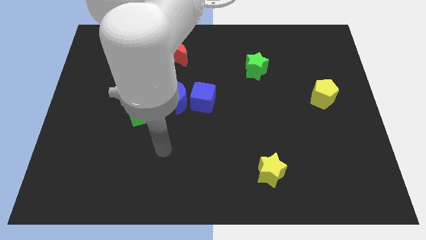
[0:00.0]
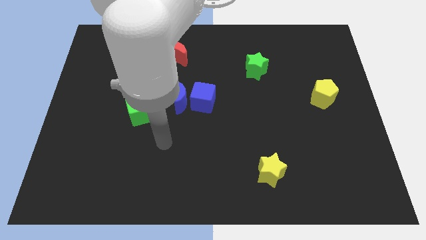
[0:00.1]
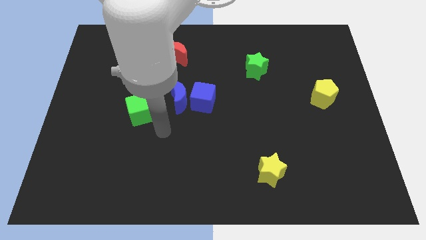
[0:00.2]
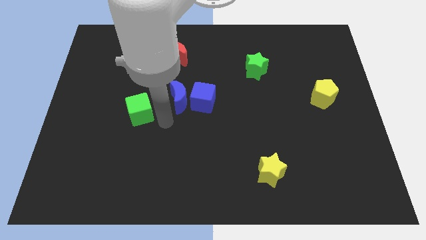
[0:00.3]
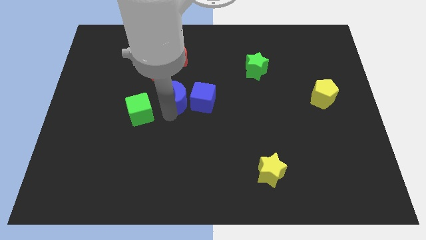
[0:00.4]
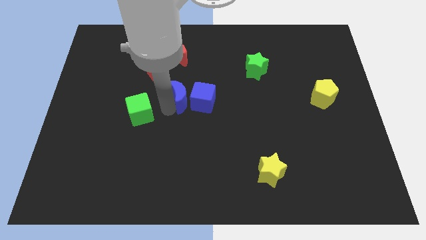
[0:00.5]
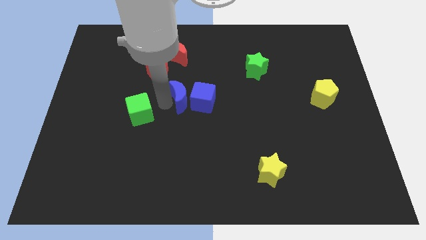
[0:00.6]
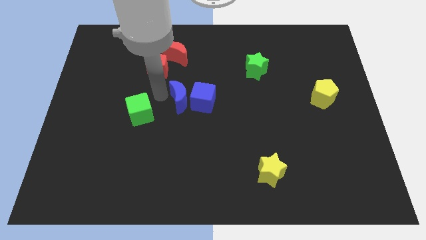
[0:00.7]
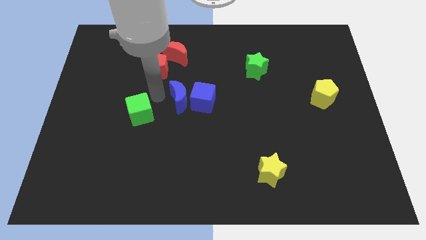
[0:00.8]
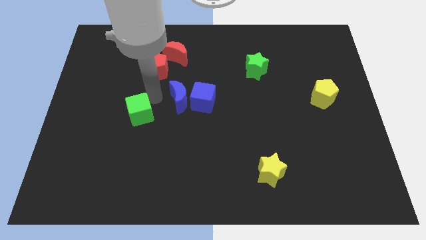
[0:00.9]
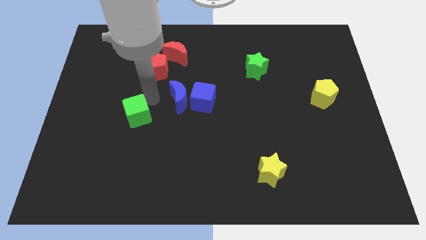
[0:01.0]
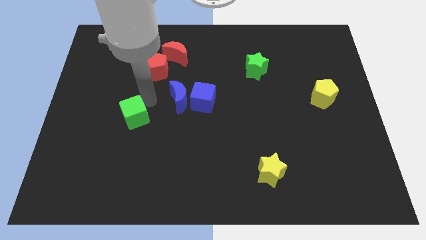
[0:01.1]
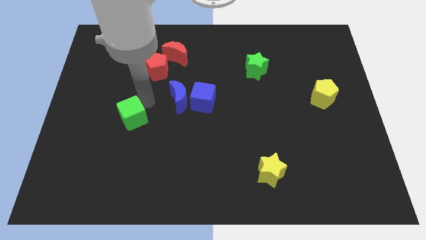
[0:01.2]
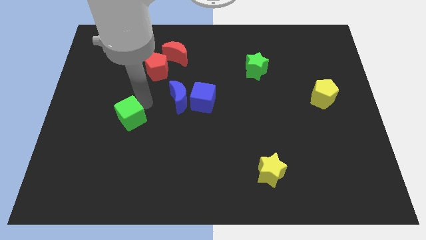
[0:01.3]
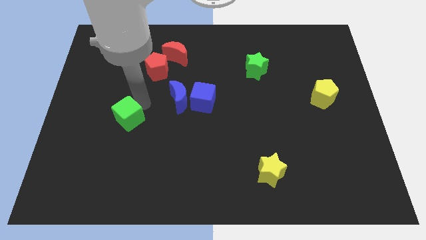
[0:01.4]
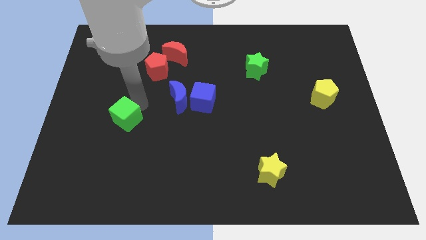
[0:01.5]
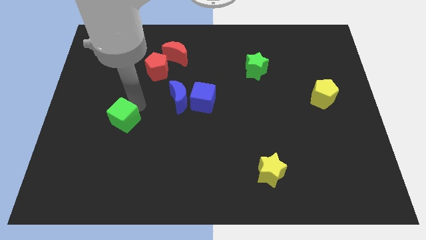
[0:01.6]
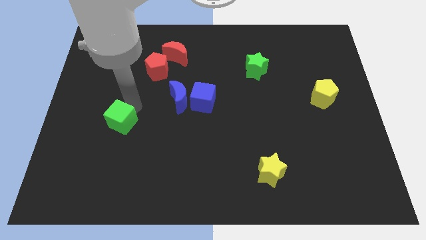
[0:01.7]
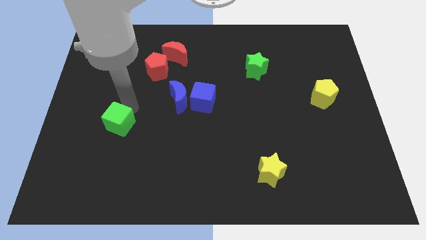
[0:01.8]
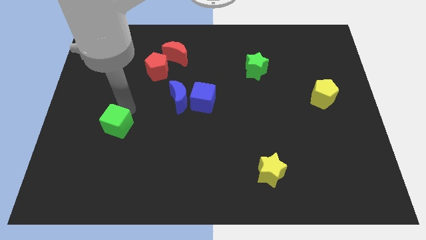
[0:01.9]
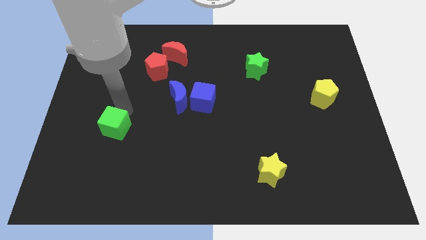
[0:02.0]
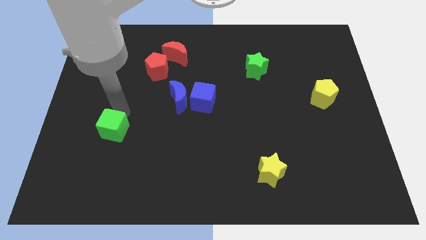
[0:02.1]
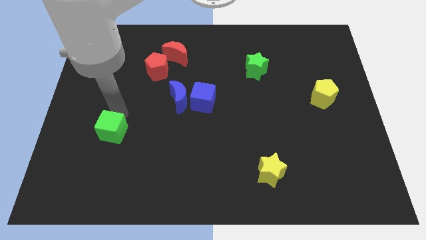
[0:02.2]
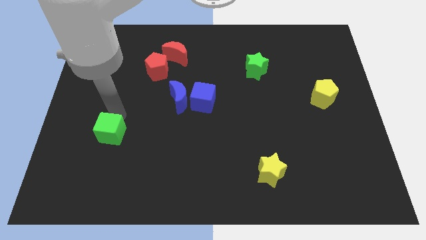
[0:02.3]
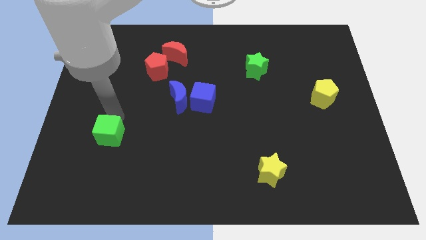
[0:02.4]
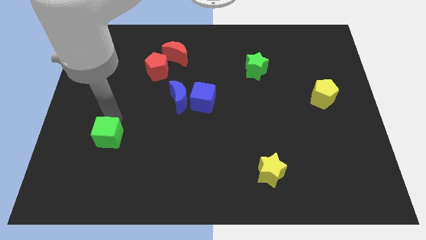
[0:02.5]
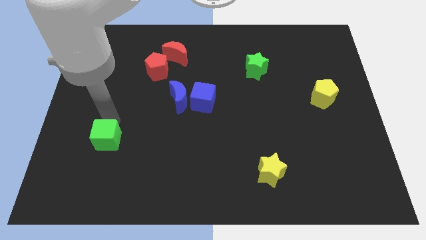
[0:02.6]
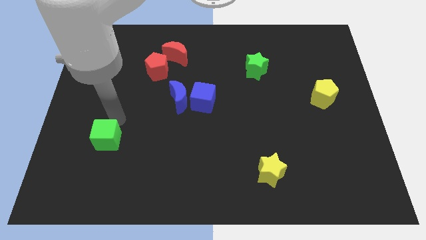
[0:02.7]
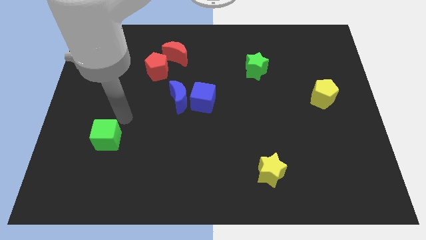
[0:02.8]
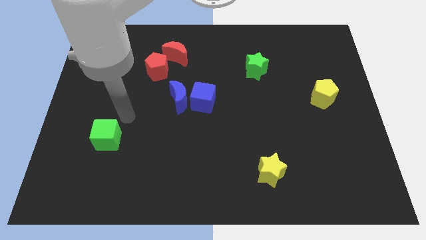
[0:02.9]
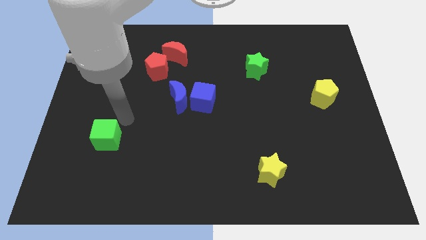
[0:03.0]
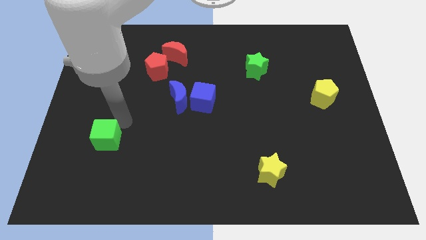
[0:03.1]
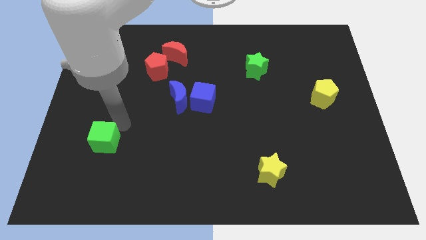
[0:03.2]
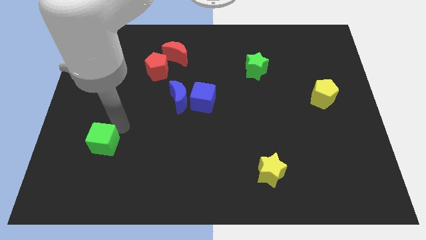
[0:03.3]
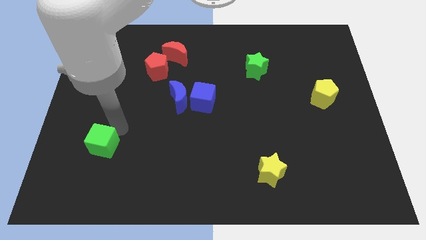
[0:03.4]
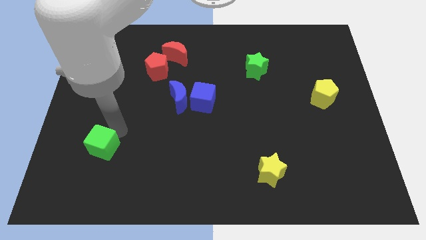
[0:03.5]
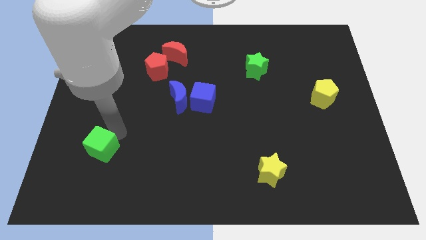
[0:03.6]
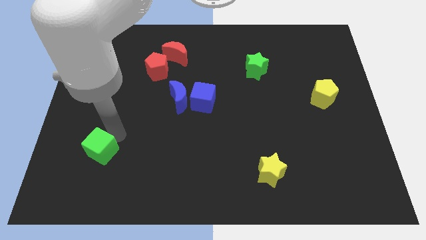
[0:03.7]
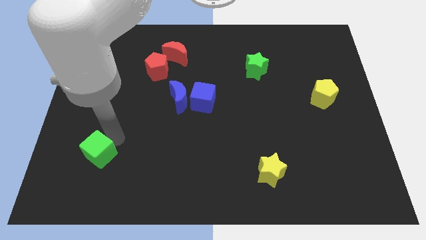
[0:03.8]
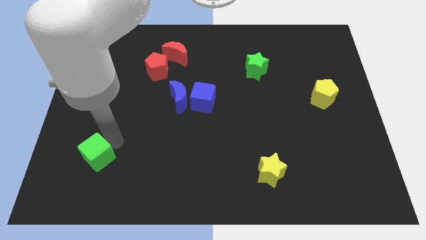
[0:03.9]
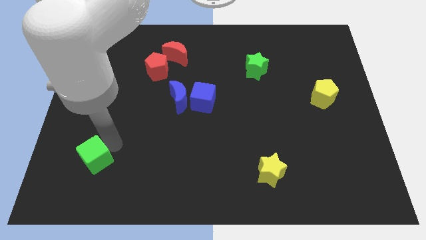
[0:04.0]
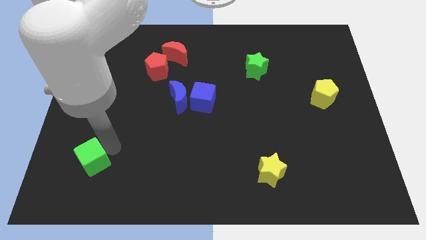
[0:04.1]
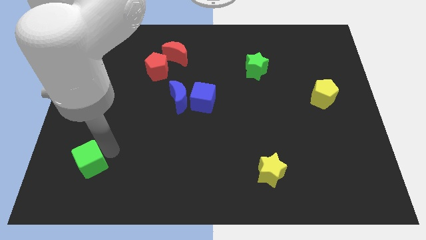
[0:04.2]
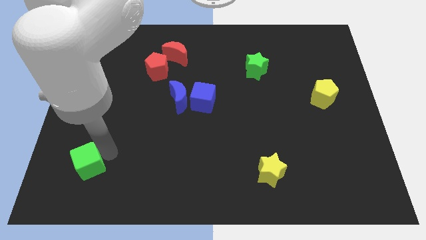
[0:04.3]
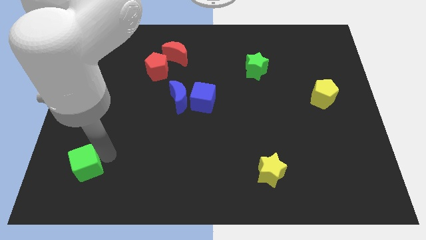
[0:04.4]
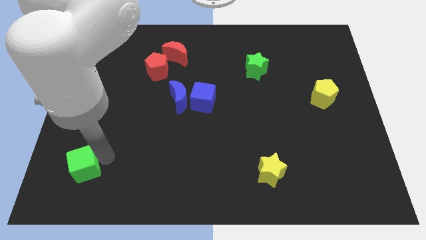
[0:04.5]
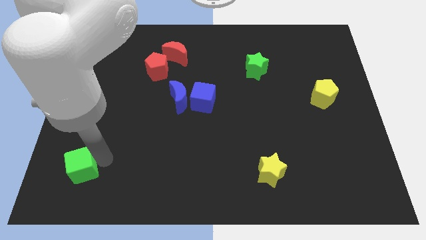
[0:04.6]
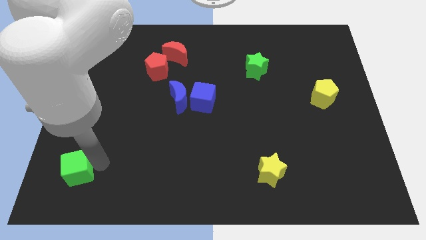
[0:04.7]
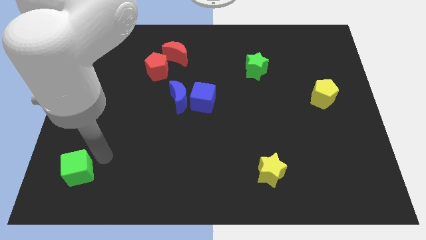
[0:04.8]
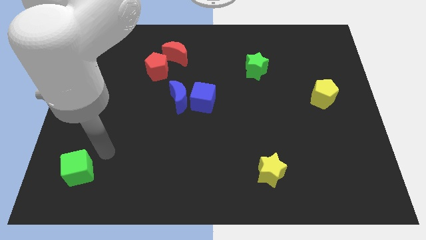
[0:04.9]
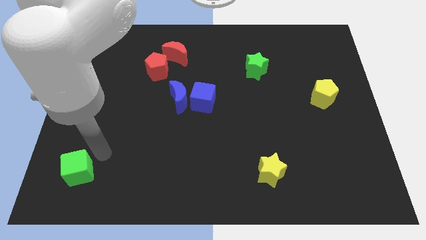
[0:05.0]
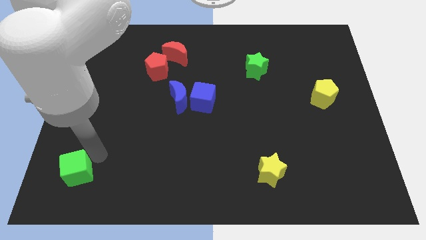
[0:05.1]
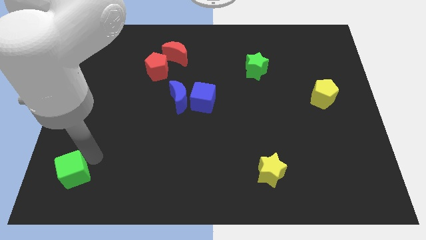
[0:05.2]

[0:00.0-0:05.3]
move the green cube to the bottom left

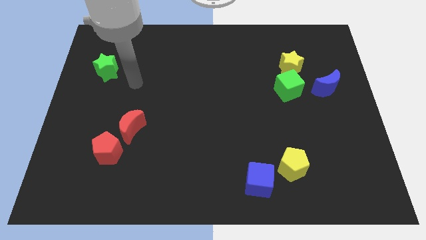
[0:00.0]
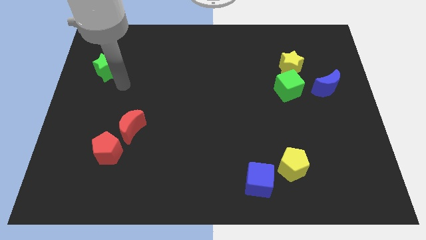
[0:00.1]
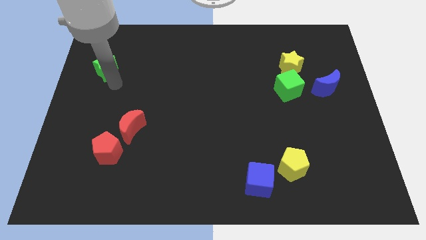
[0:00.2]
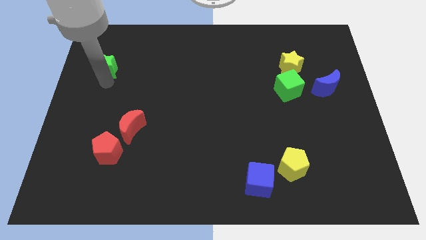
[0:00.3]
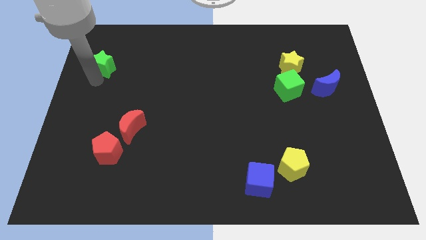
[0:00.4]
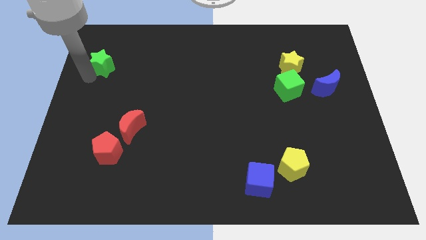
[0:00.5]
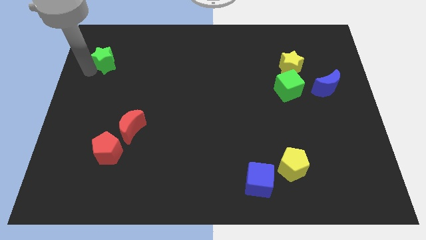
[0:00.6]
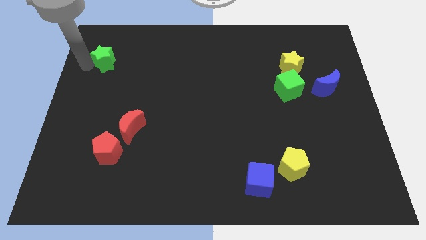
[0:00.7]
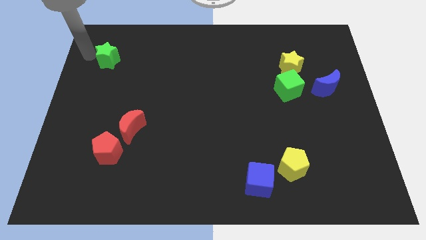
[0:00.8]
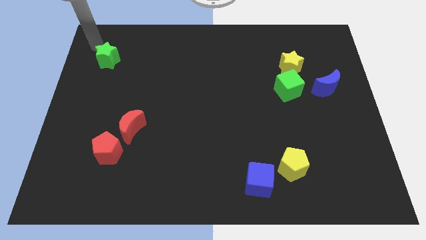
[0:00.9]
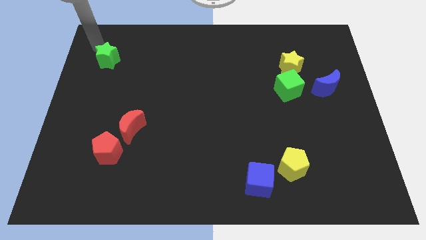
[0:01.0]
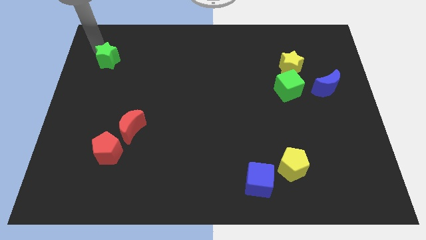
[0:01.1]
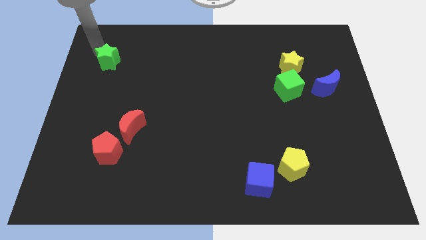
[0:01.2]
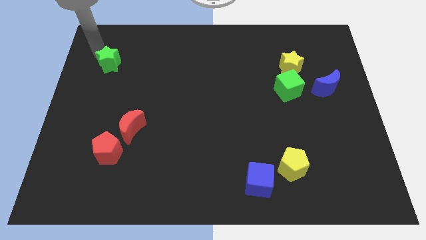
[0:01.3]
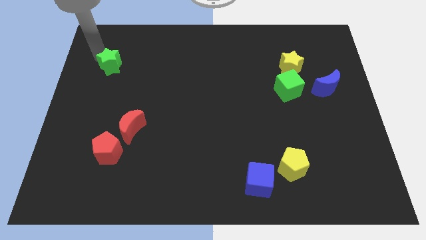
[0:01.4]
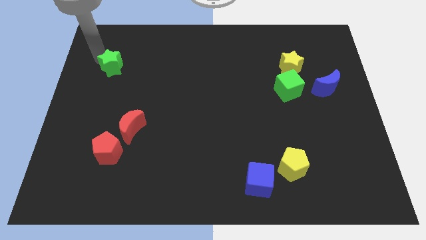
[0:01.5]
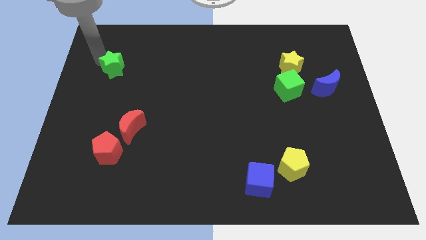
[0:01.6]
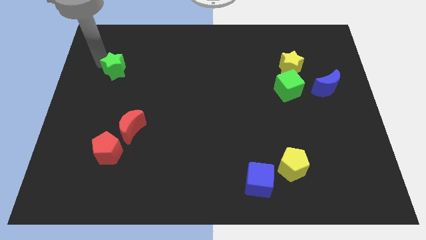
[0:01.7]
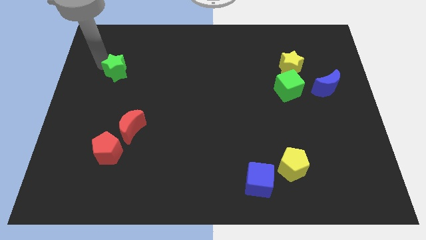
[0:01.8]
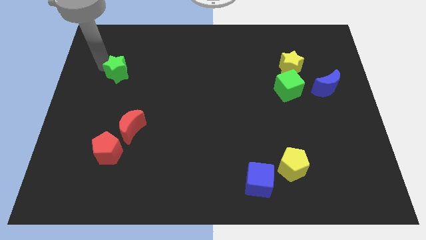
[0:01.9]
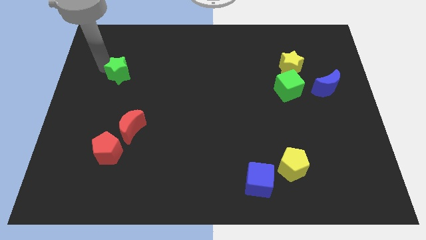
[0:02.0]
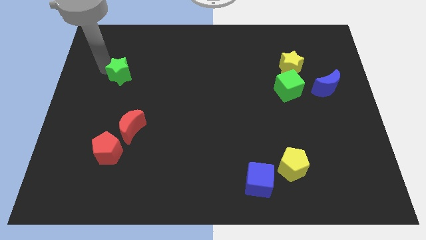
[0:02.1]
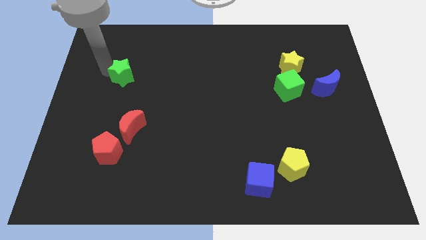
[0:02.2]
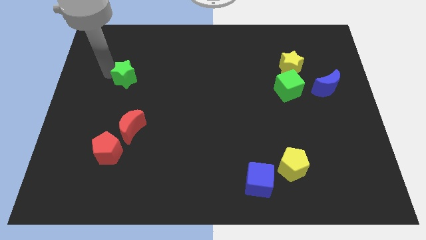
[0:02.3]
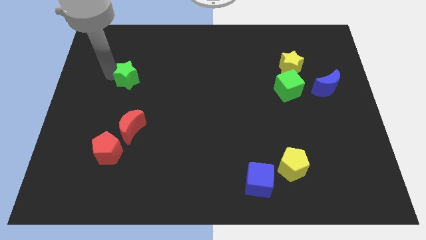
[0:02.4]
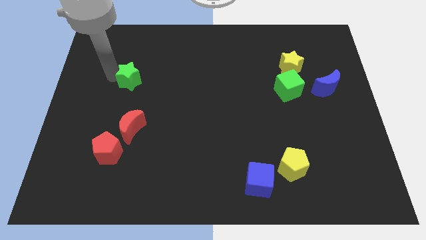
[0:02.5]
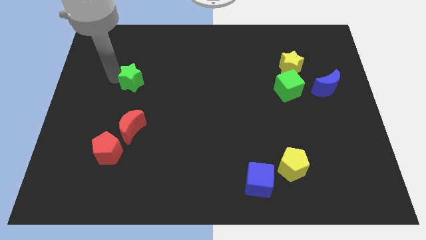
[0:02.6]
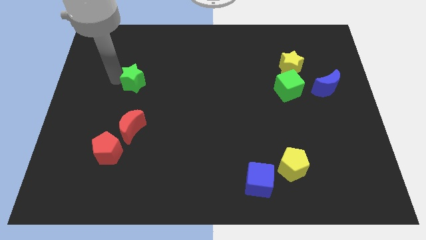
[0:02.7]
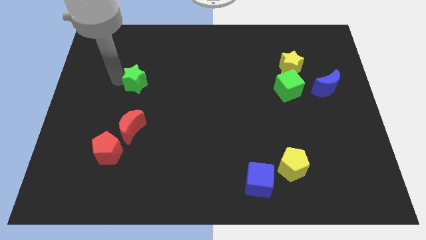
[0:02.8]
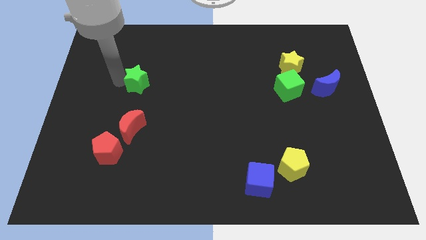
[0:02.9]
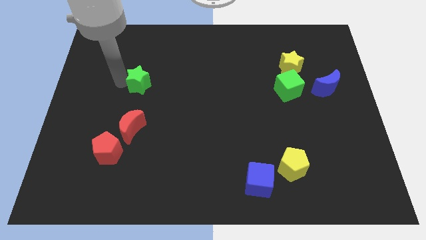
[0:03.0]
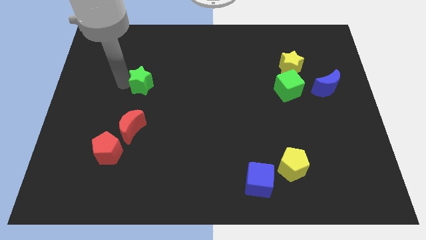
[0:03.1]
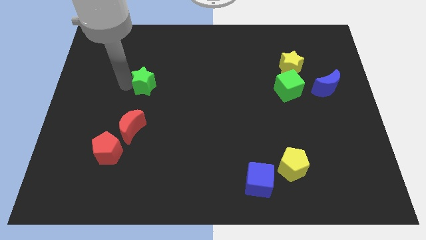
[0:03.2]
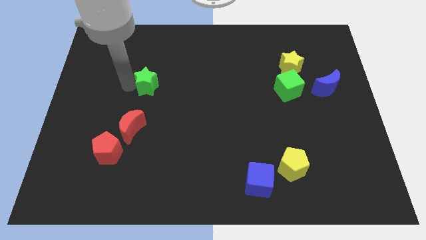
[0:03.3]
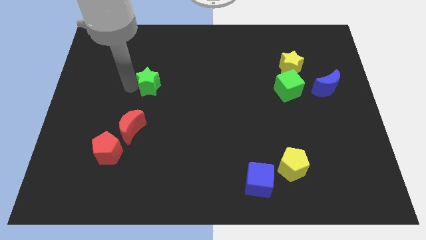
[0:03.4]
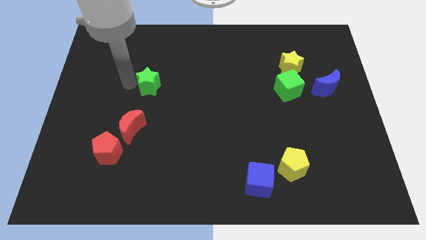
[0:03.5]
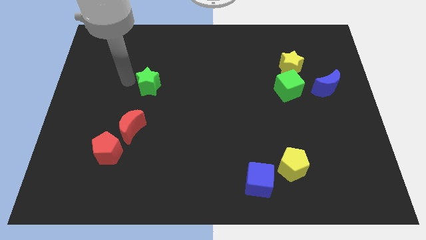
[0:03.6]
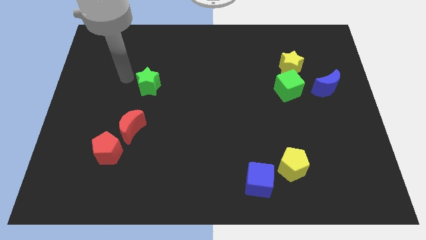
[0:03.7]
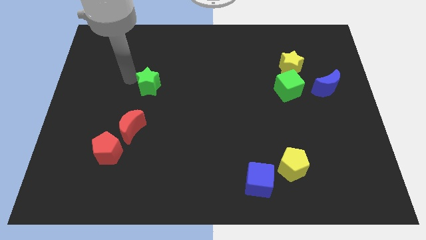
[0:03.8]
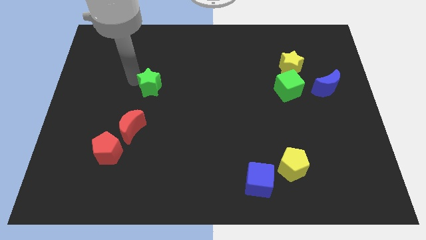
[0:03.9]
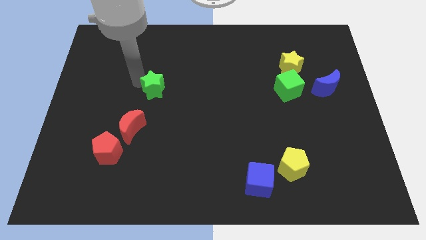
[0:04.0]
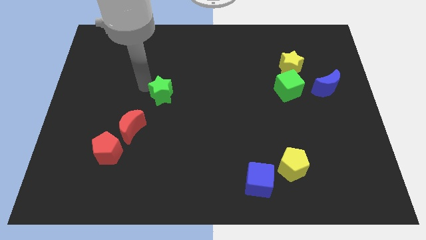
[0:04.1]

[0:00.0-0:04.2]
put the green star to the center of the board
